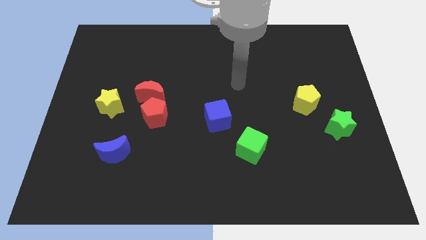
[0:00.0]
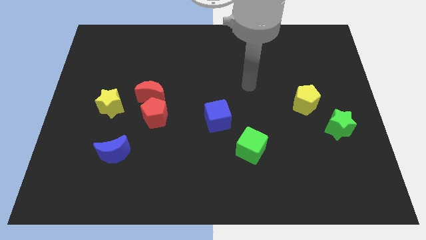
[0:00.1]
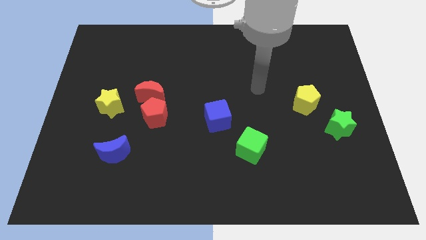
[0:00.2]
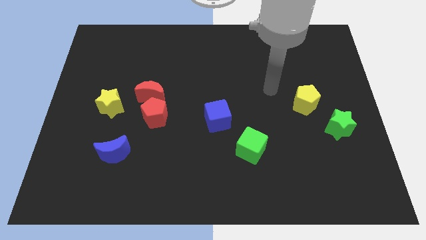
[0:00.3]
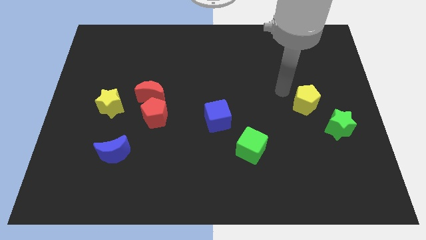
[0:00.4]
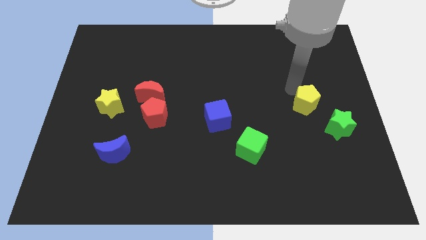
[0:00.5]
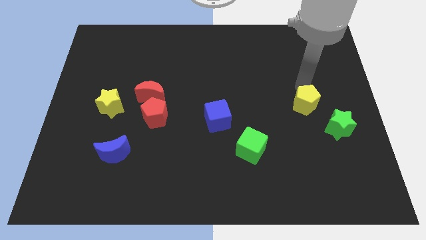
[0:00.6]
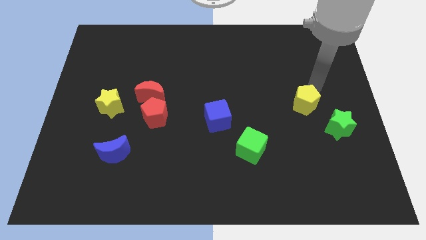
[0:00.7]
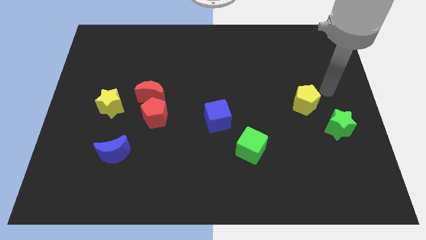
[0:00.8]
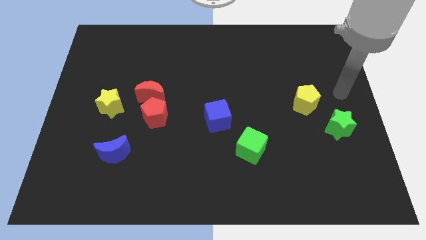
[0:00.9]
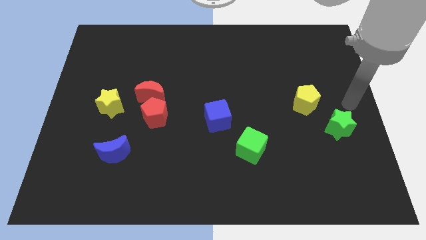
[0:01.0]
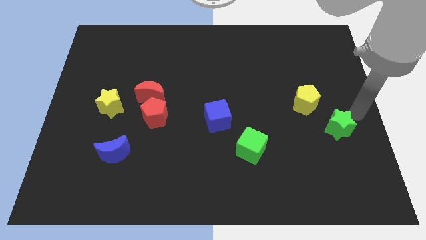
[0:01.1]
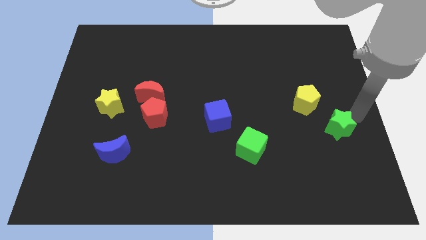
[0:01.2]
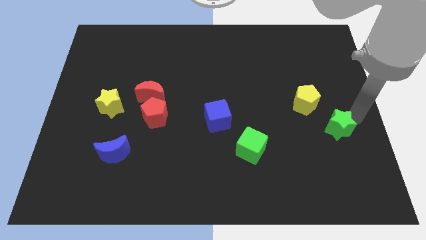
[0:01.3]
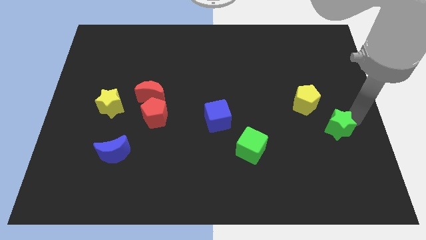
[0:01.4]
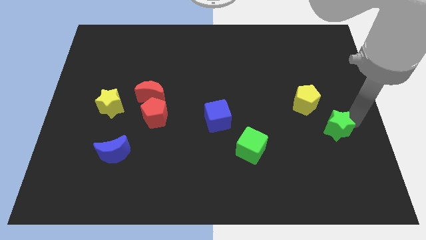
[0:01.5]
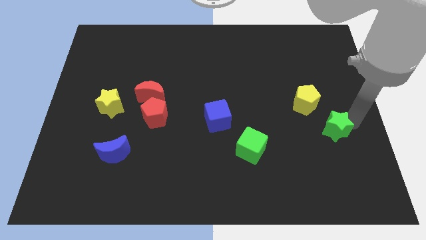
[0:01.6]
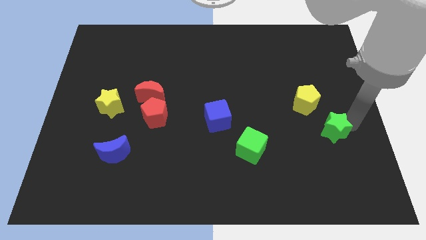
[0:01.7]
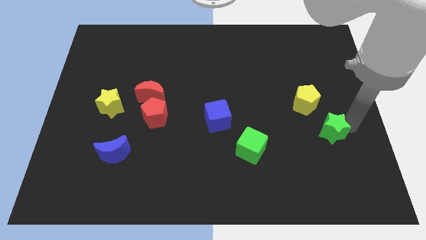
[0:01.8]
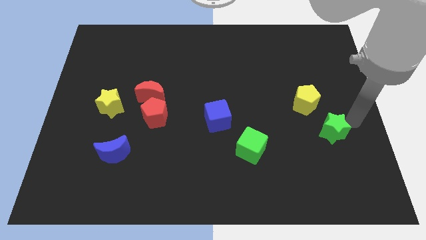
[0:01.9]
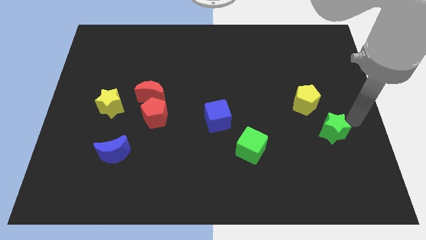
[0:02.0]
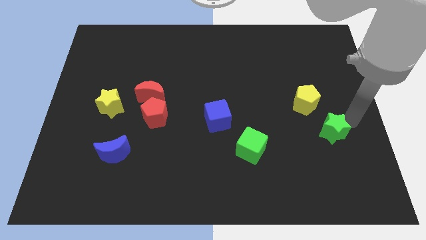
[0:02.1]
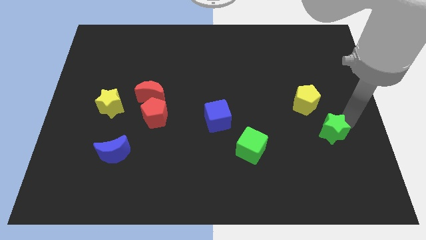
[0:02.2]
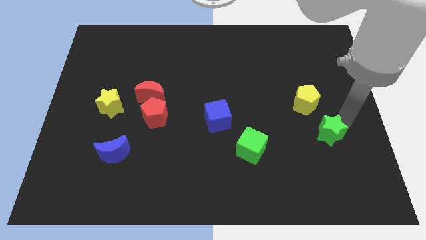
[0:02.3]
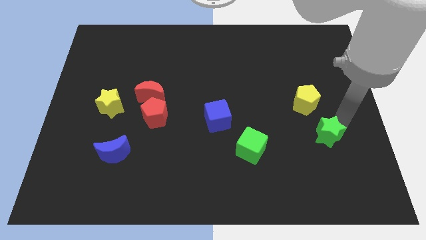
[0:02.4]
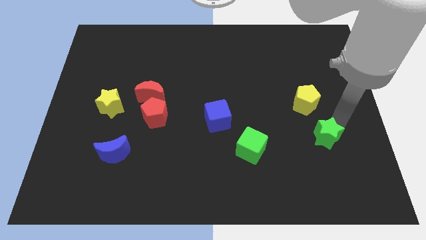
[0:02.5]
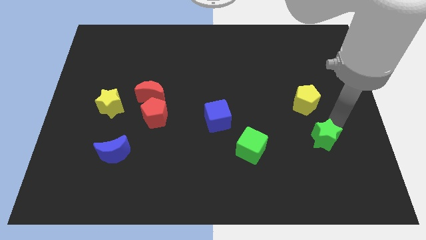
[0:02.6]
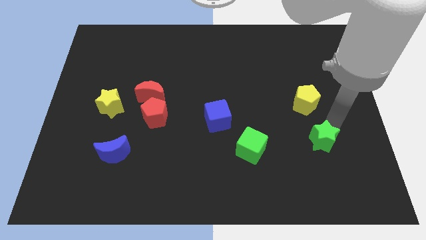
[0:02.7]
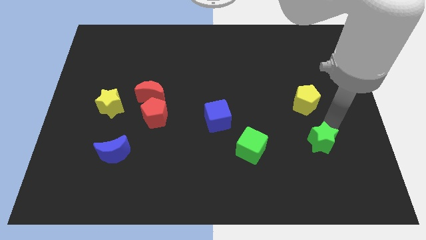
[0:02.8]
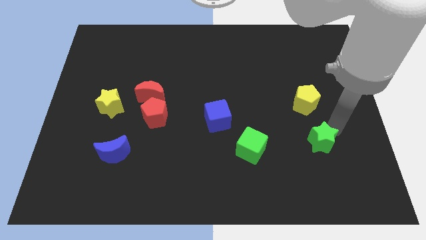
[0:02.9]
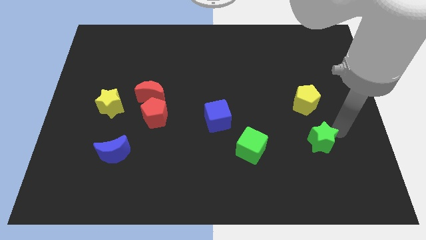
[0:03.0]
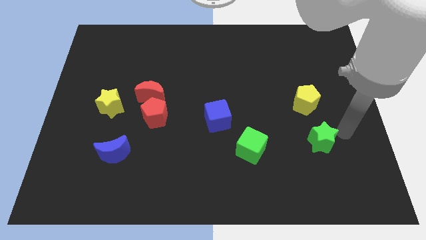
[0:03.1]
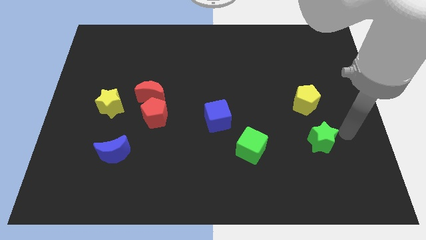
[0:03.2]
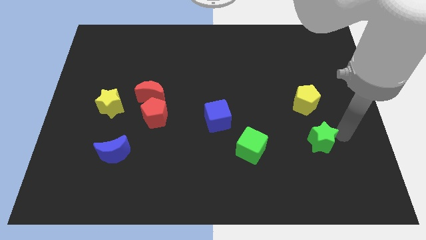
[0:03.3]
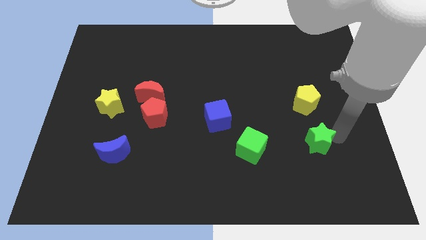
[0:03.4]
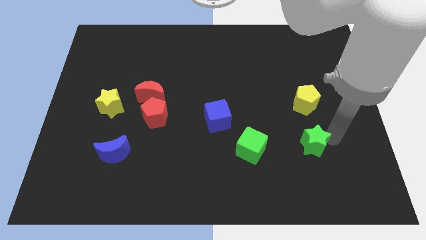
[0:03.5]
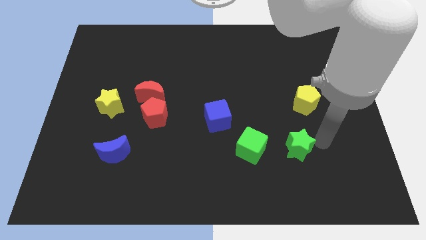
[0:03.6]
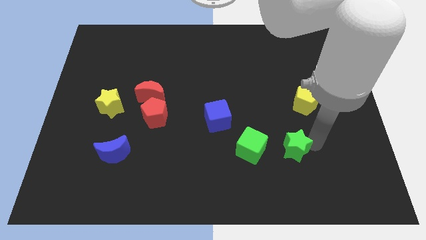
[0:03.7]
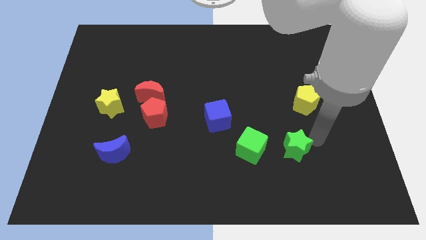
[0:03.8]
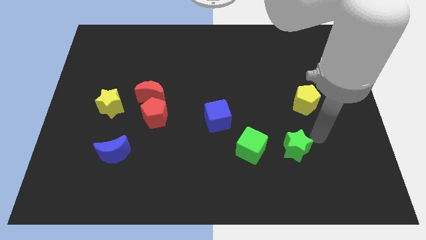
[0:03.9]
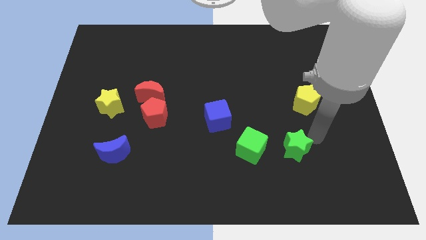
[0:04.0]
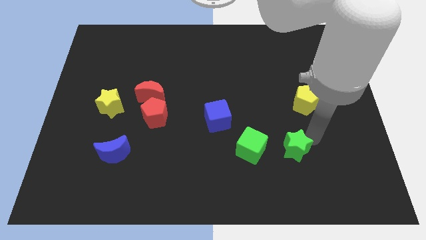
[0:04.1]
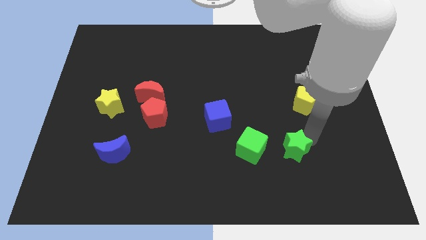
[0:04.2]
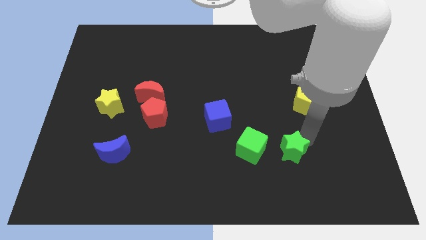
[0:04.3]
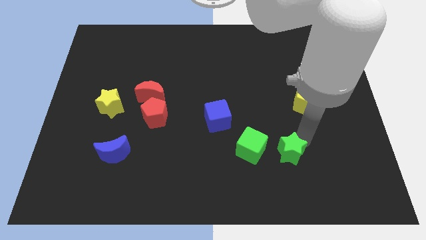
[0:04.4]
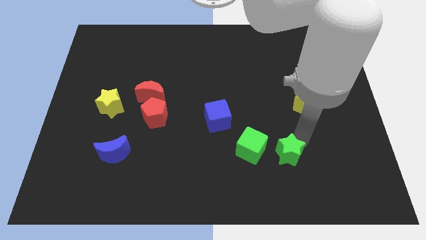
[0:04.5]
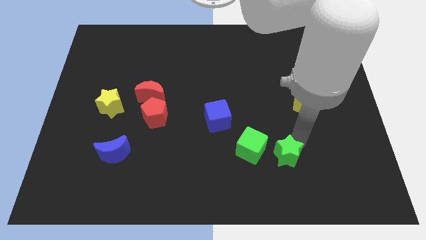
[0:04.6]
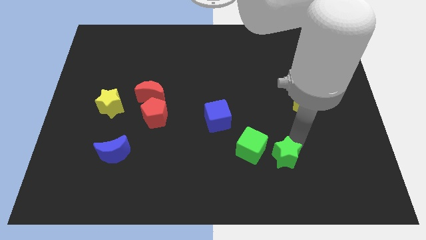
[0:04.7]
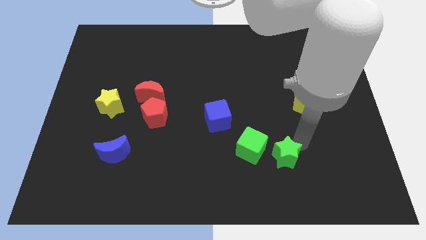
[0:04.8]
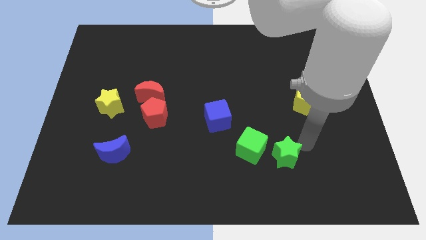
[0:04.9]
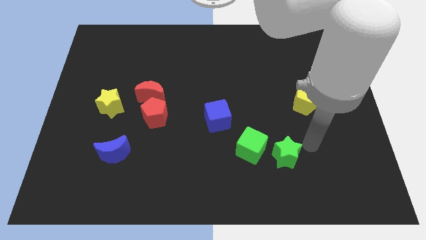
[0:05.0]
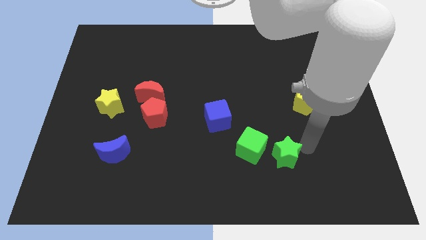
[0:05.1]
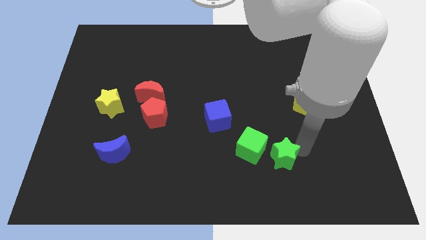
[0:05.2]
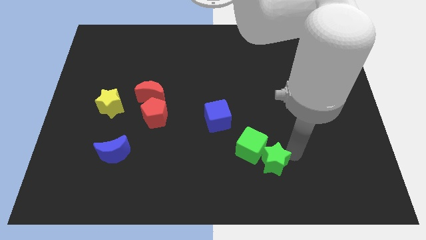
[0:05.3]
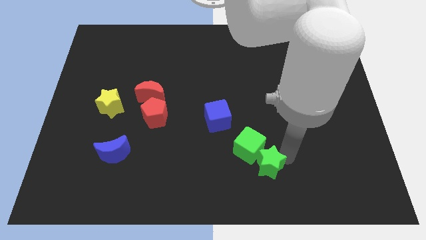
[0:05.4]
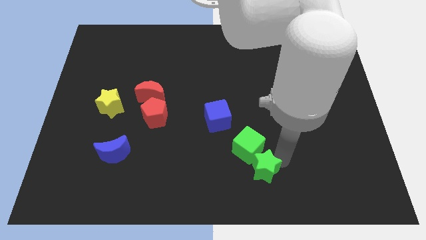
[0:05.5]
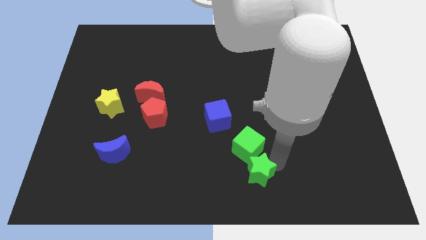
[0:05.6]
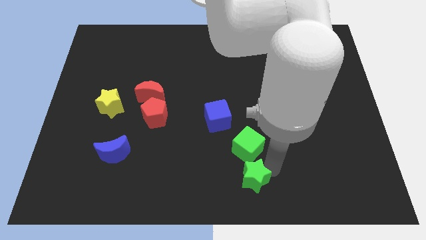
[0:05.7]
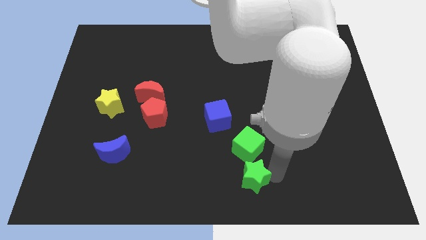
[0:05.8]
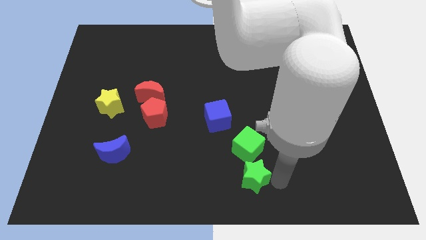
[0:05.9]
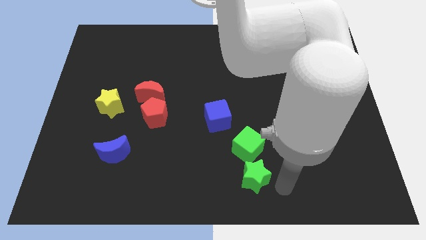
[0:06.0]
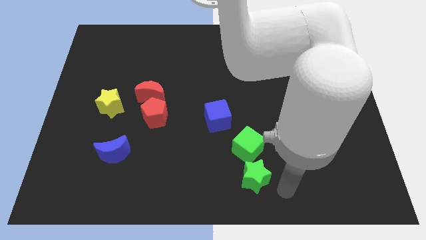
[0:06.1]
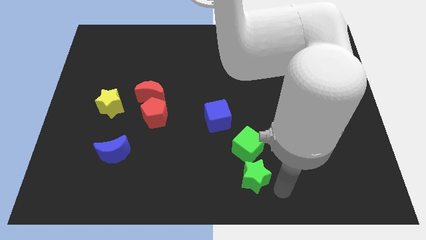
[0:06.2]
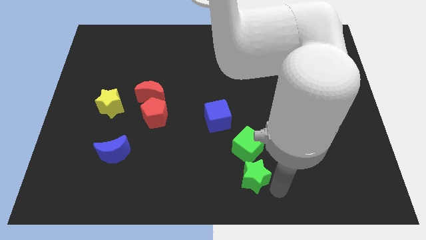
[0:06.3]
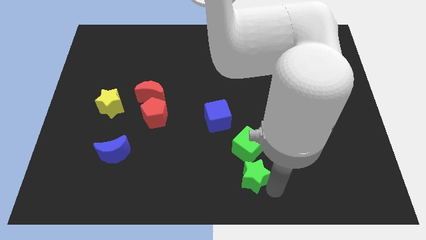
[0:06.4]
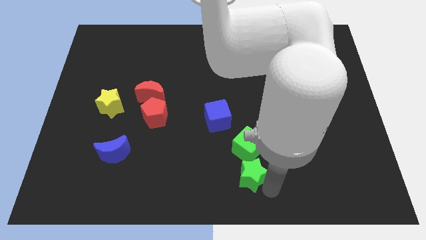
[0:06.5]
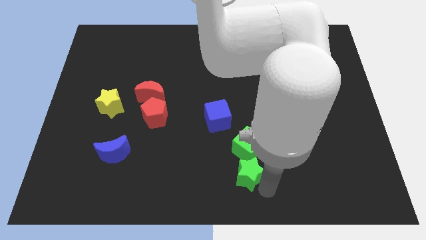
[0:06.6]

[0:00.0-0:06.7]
move the green star diagonally down and to the left of the green cube
